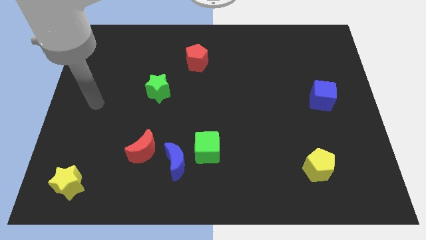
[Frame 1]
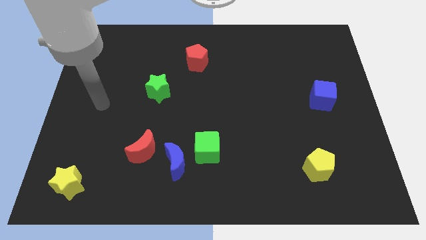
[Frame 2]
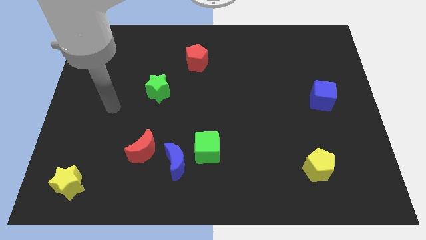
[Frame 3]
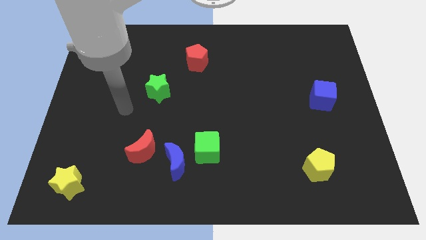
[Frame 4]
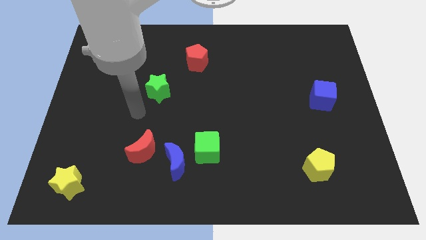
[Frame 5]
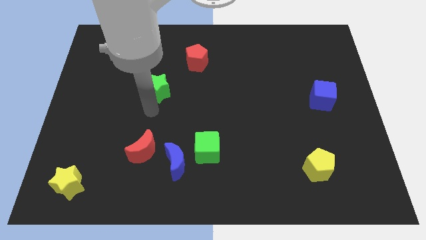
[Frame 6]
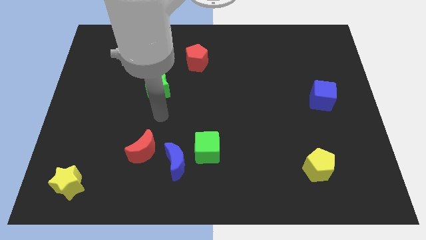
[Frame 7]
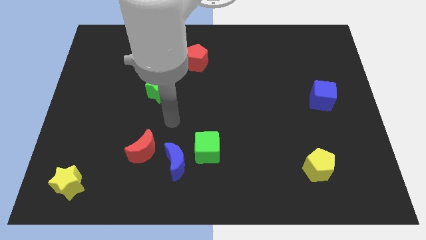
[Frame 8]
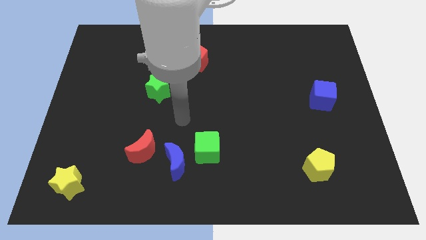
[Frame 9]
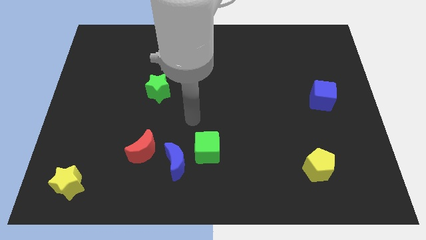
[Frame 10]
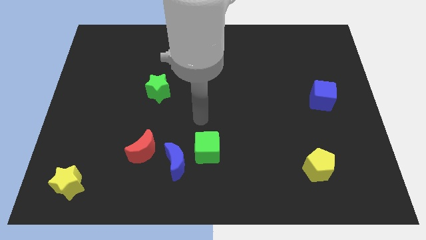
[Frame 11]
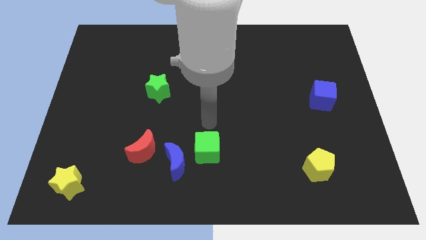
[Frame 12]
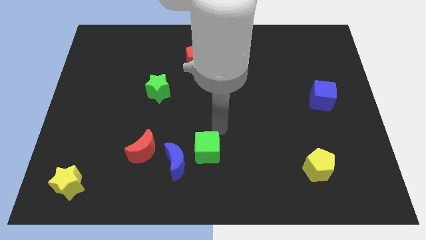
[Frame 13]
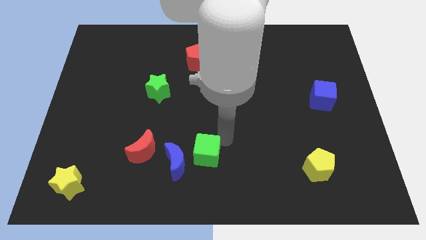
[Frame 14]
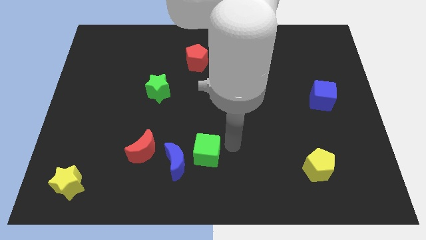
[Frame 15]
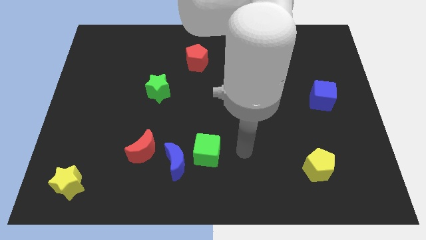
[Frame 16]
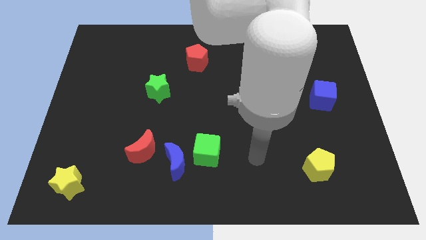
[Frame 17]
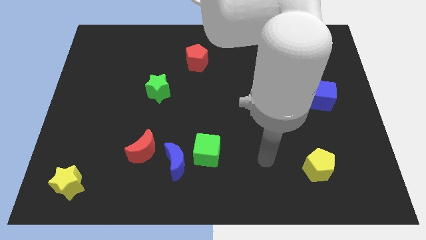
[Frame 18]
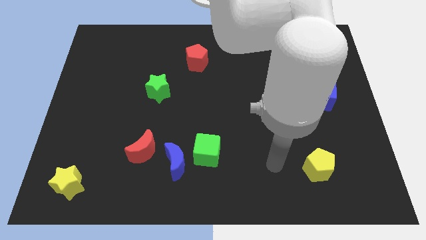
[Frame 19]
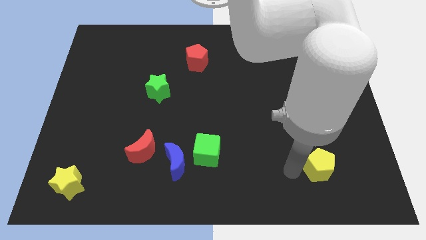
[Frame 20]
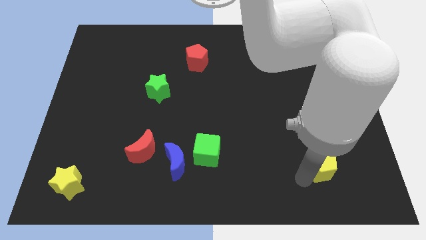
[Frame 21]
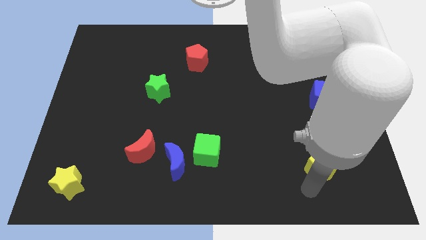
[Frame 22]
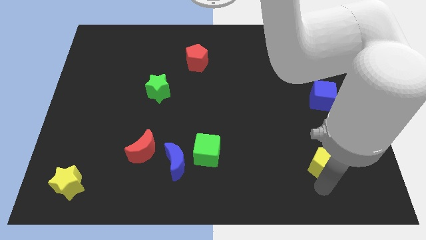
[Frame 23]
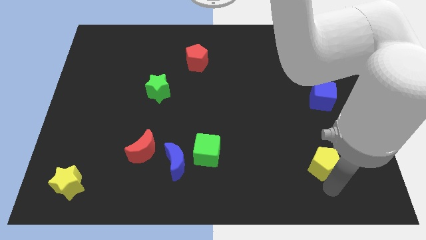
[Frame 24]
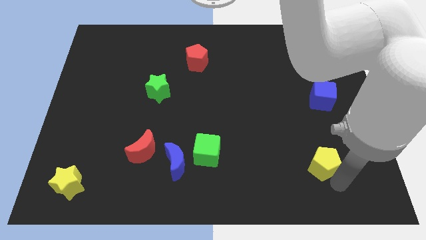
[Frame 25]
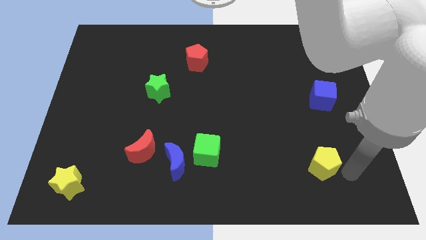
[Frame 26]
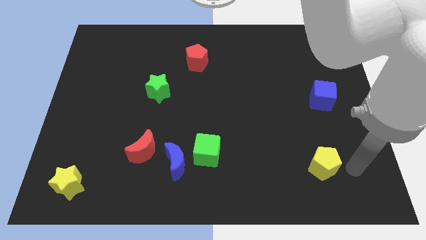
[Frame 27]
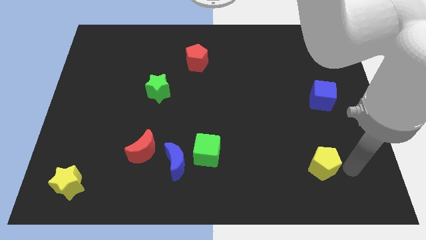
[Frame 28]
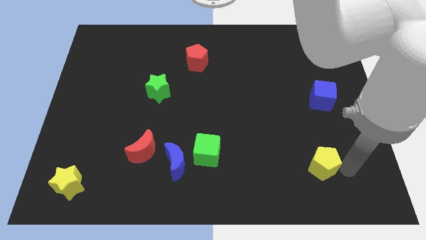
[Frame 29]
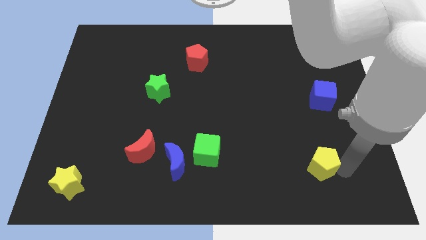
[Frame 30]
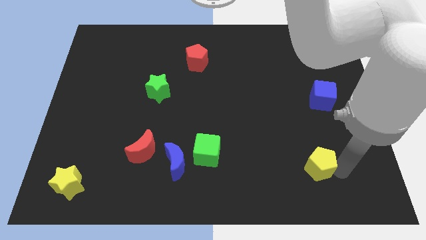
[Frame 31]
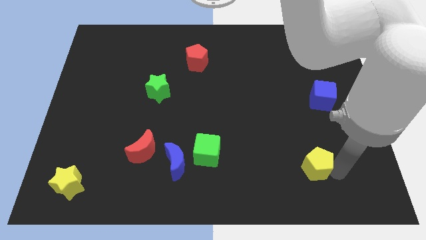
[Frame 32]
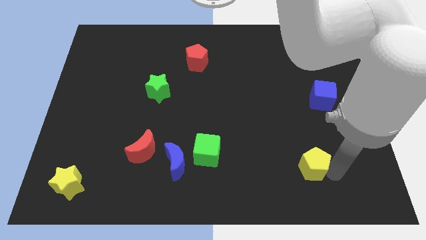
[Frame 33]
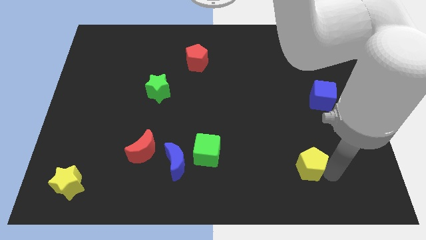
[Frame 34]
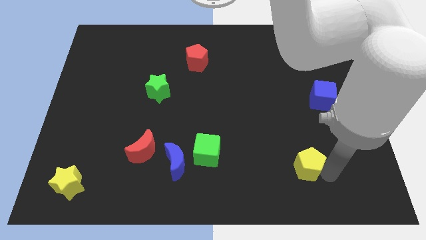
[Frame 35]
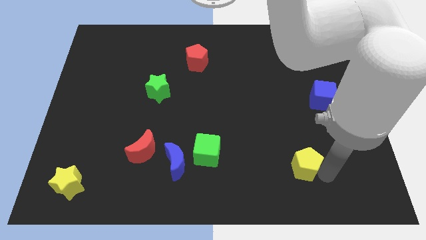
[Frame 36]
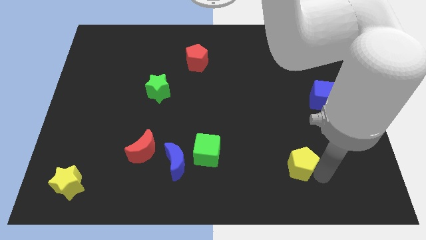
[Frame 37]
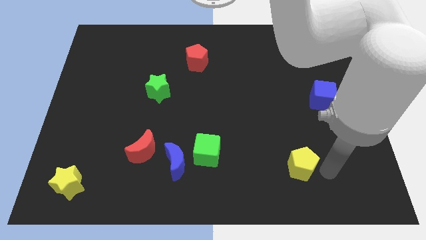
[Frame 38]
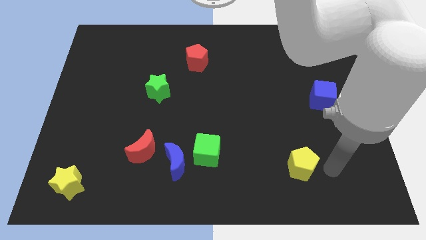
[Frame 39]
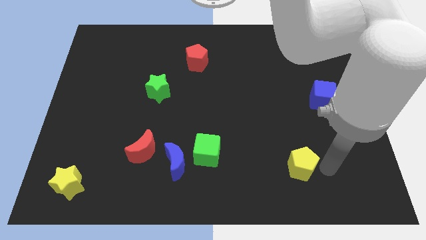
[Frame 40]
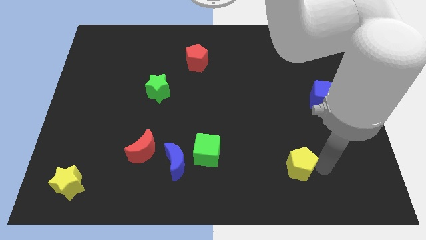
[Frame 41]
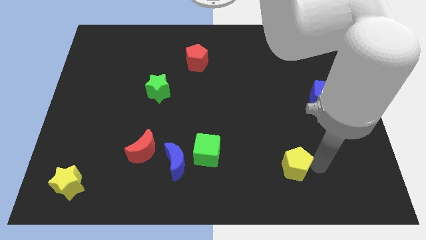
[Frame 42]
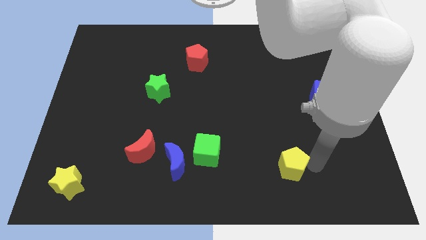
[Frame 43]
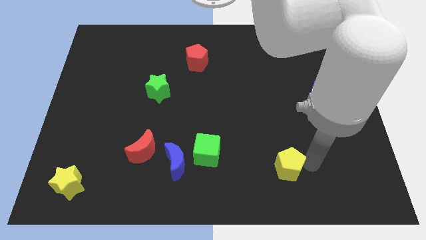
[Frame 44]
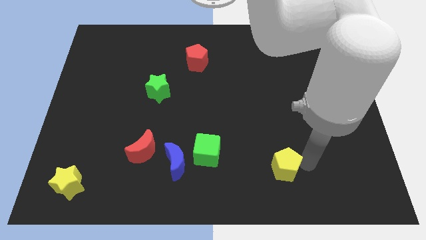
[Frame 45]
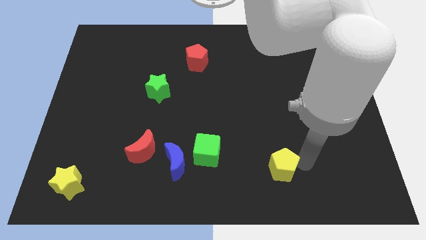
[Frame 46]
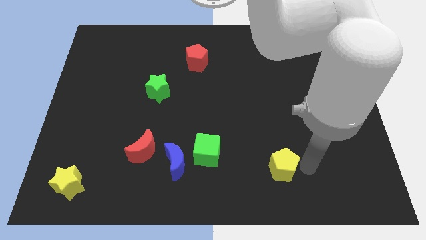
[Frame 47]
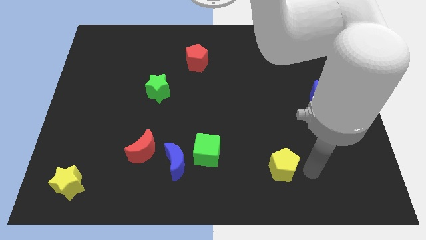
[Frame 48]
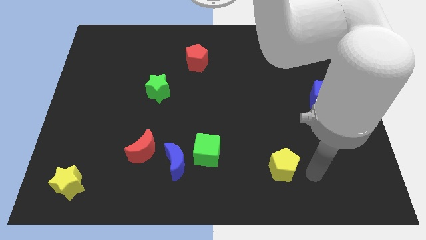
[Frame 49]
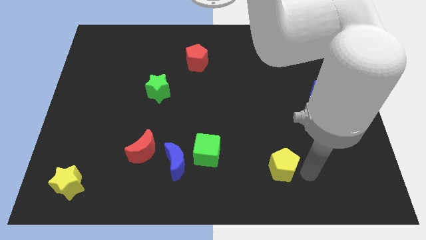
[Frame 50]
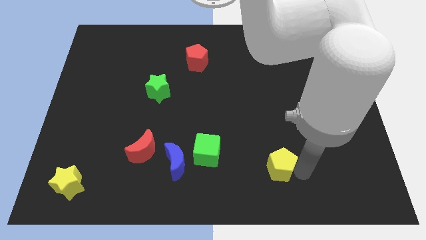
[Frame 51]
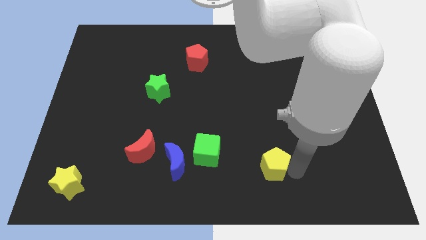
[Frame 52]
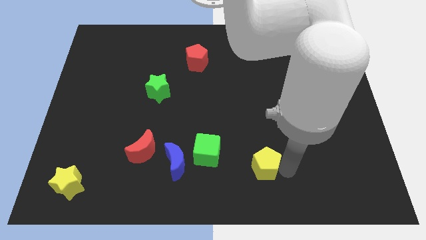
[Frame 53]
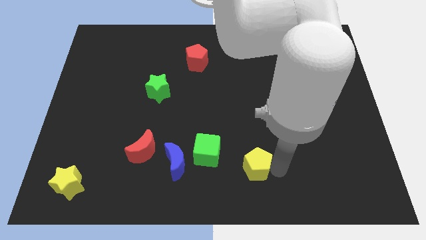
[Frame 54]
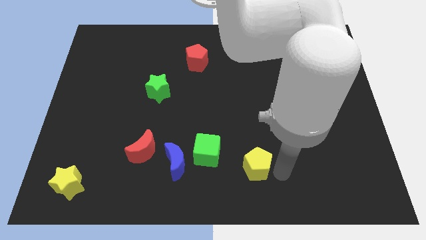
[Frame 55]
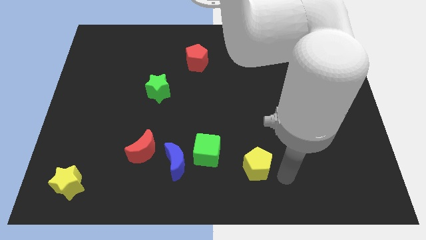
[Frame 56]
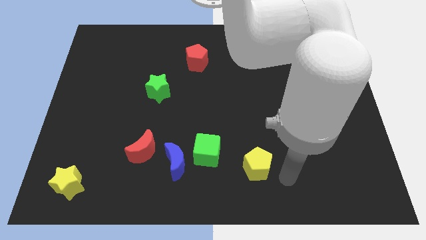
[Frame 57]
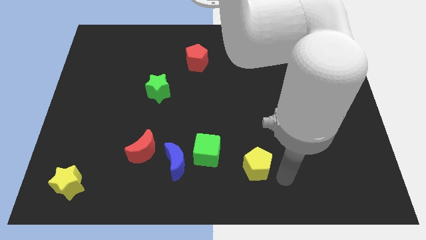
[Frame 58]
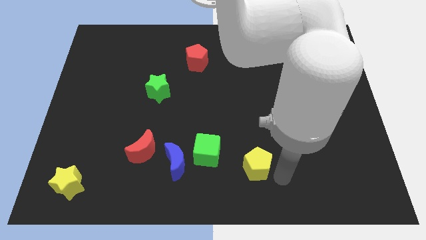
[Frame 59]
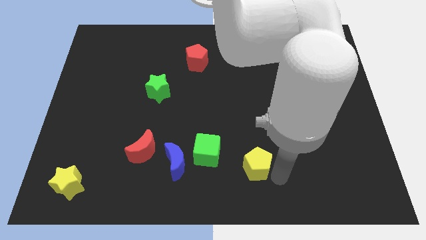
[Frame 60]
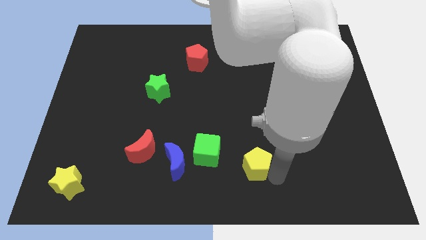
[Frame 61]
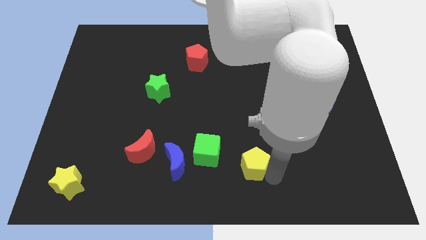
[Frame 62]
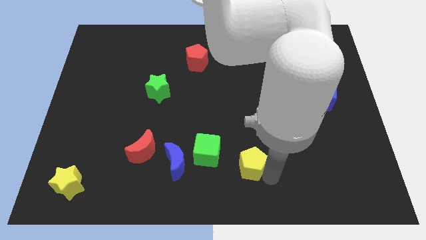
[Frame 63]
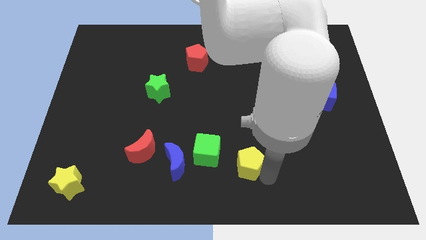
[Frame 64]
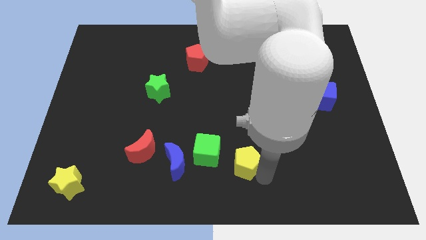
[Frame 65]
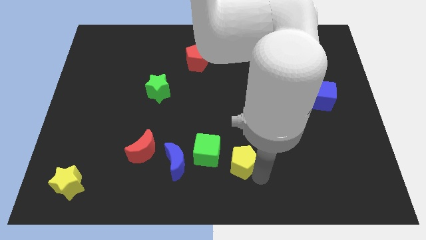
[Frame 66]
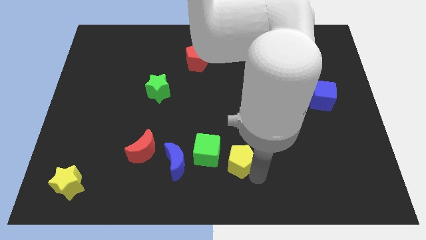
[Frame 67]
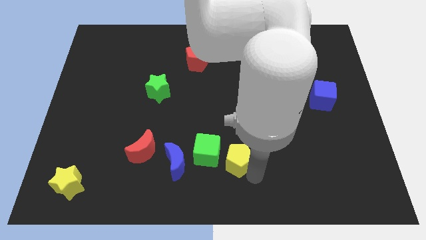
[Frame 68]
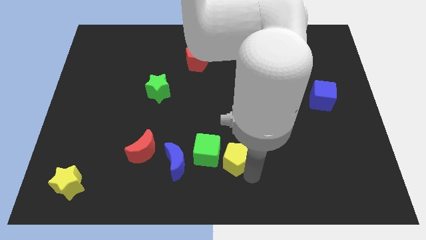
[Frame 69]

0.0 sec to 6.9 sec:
put the yellow pentagon next to the green cube
